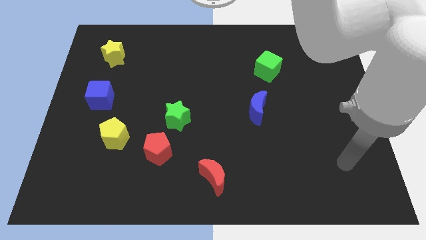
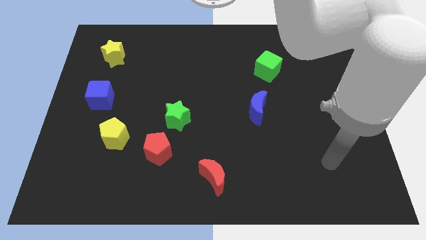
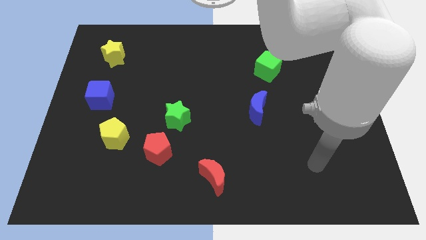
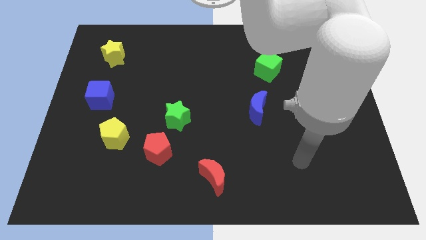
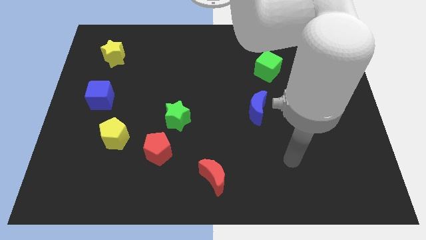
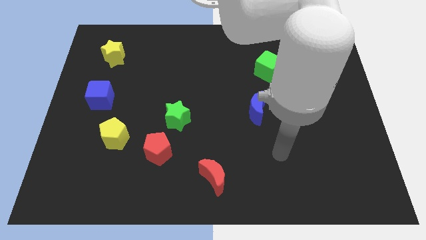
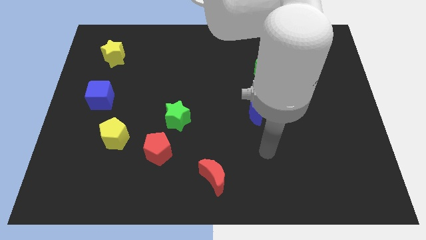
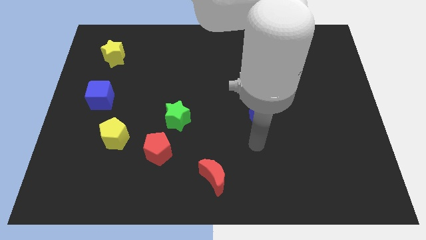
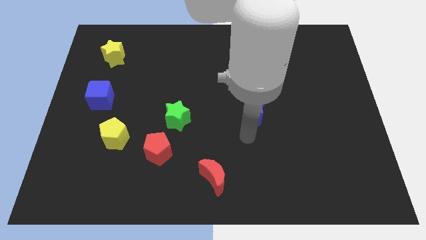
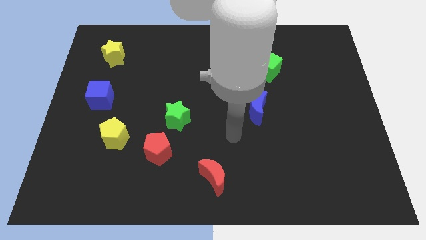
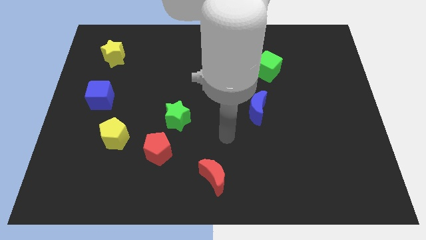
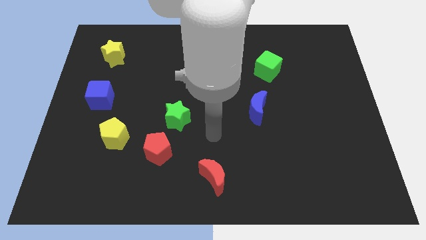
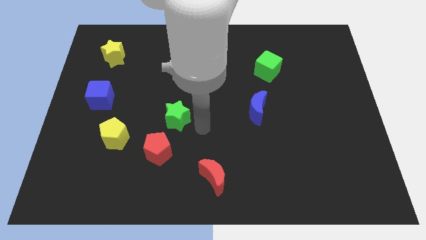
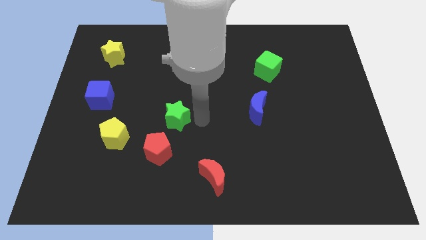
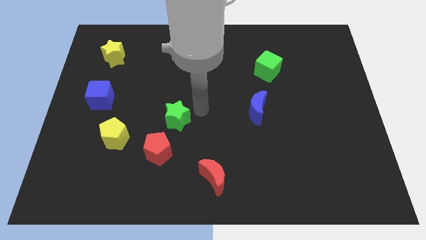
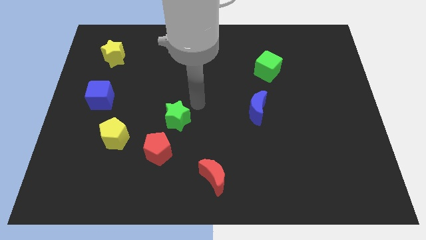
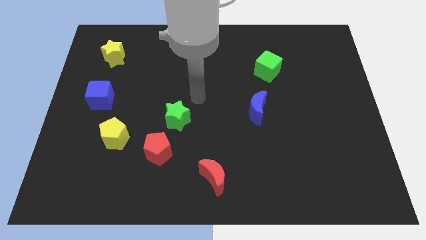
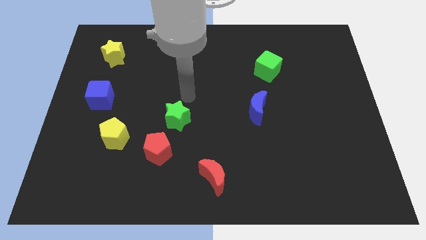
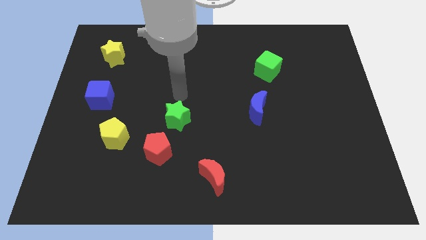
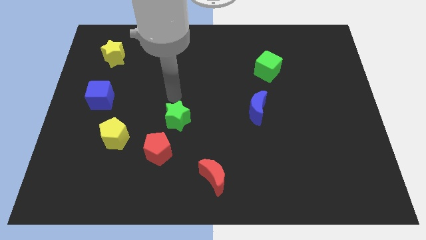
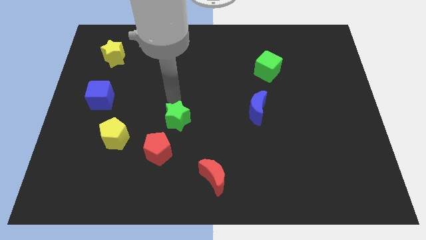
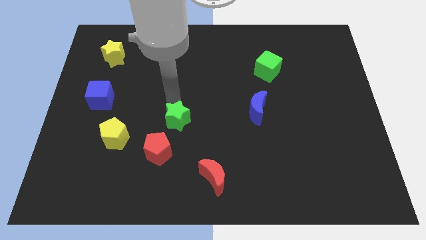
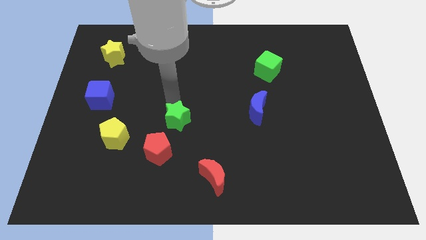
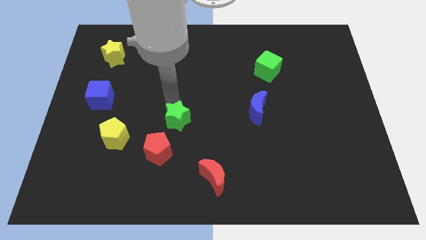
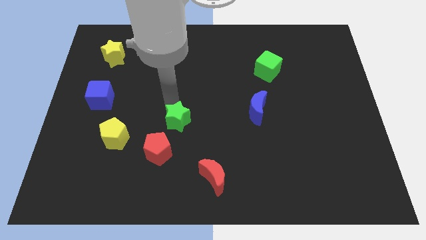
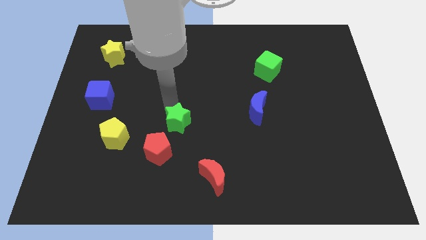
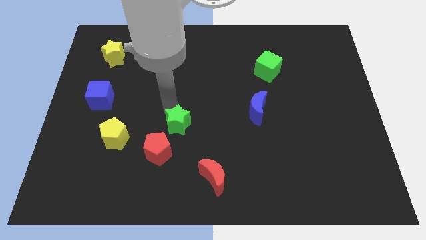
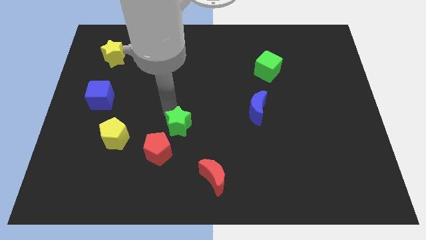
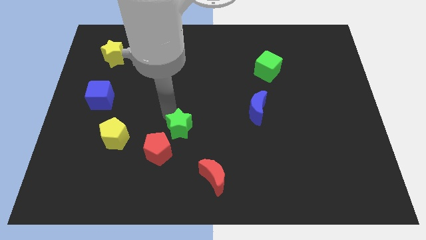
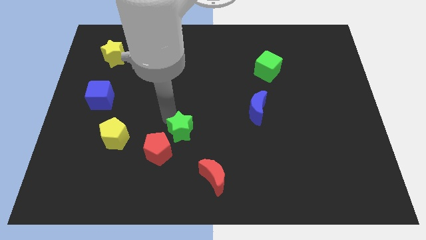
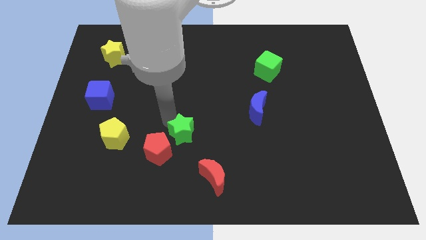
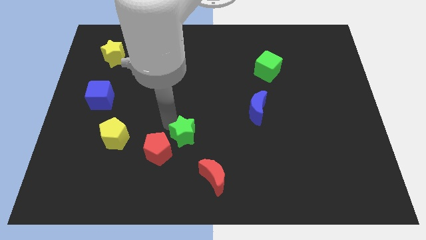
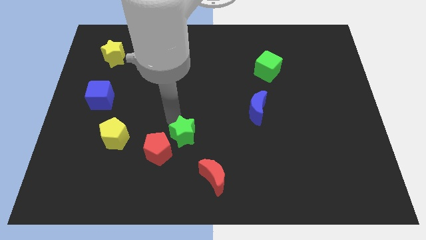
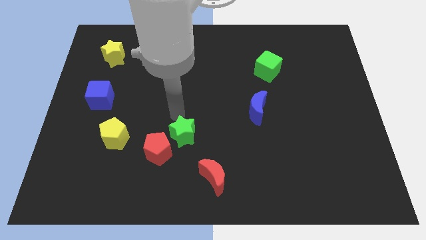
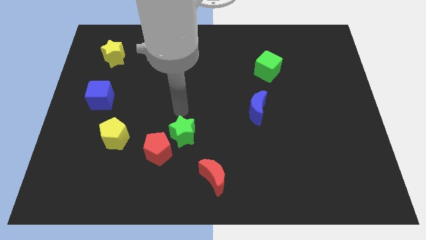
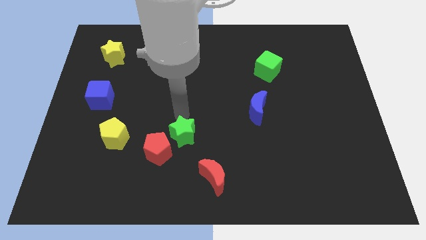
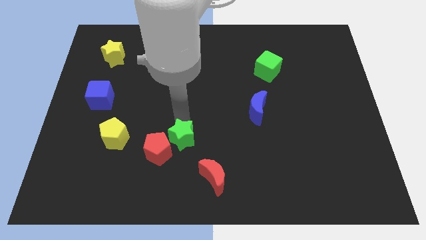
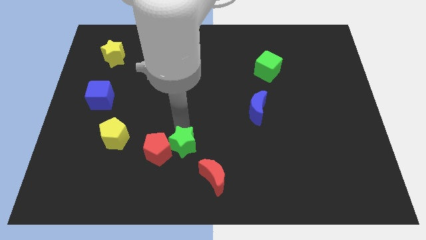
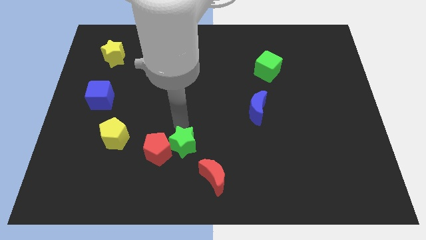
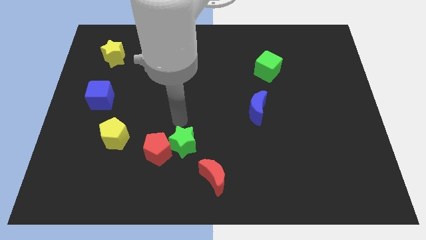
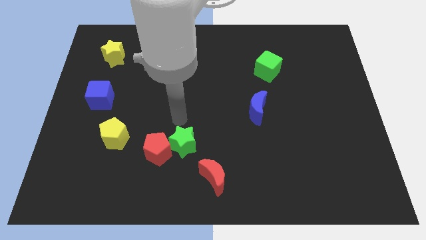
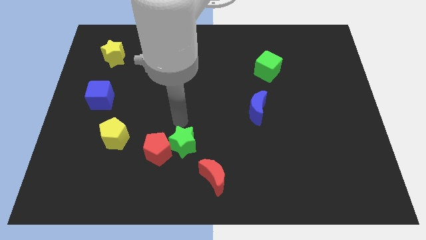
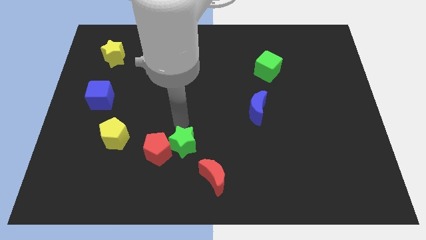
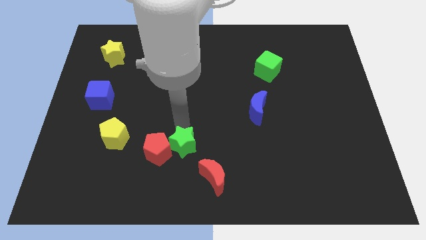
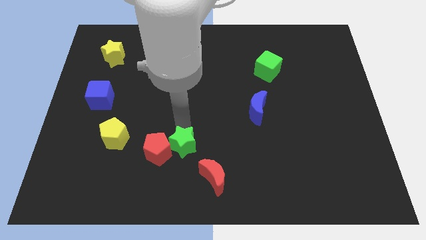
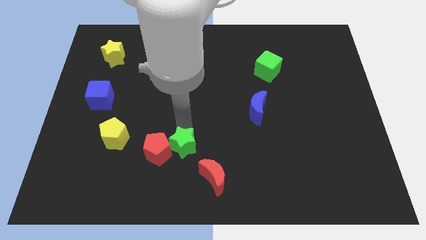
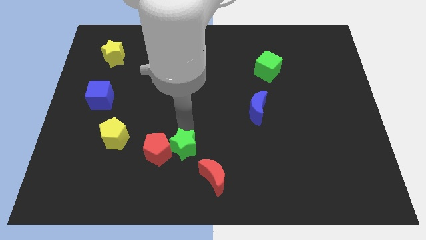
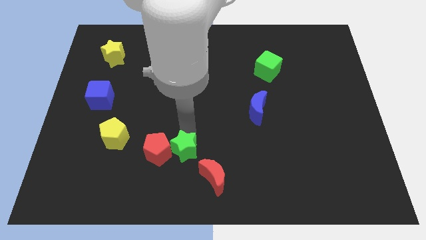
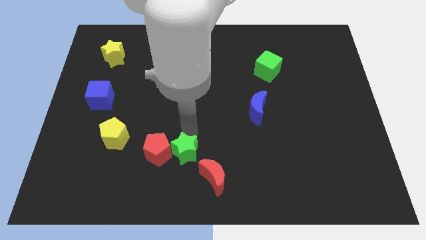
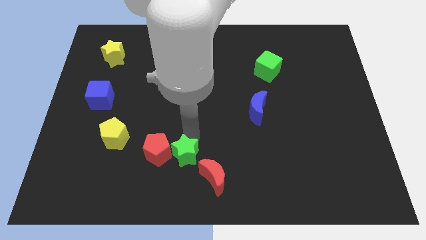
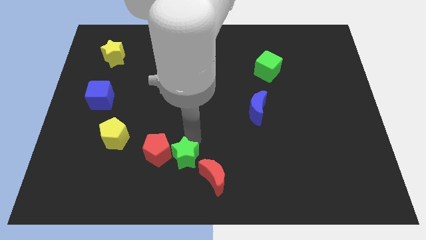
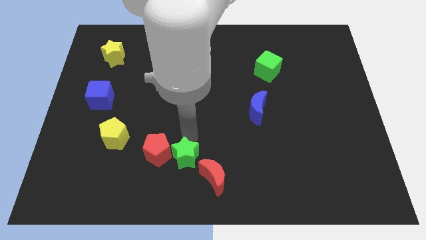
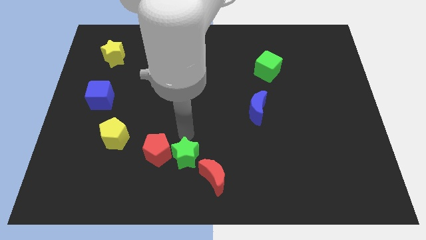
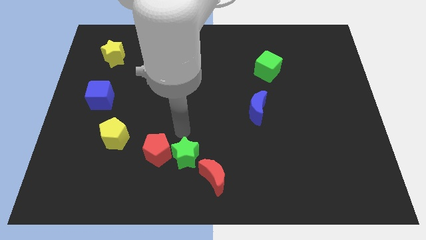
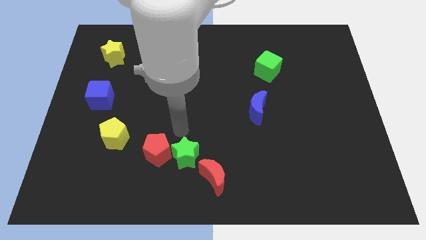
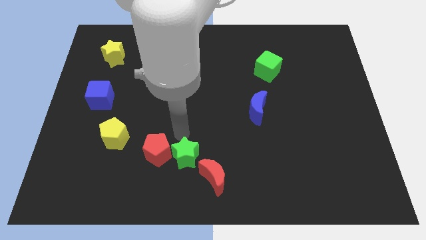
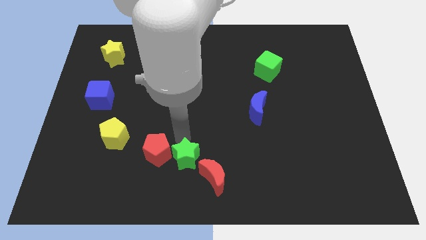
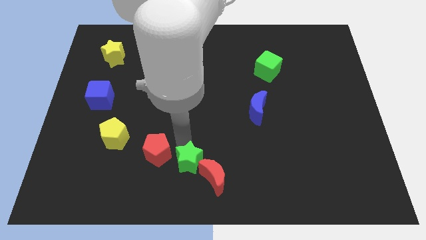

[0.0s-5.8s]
push the green star to the bottom side

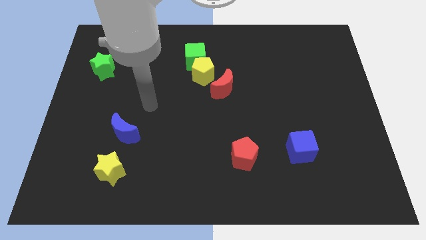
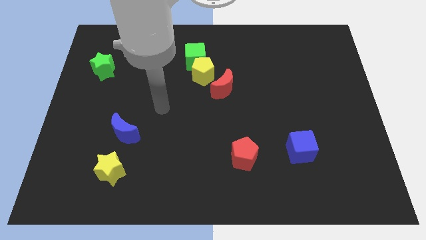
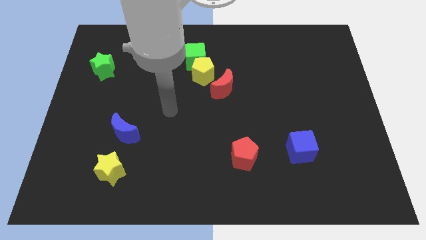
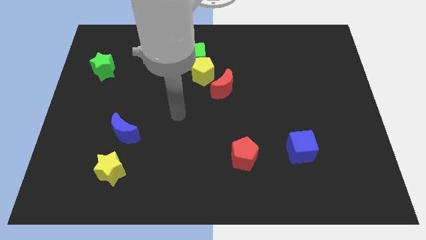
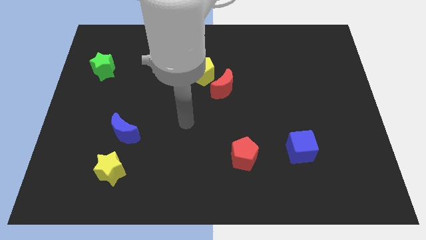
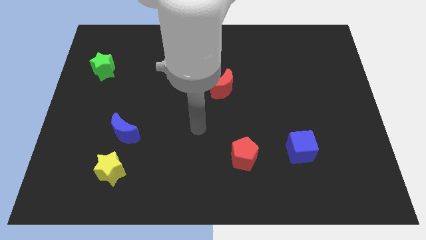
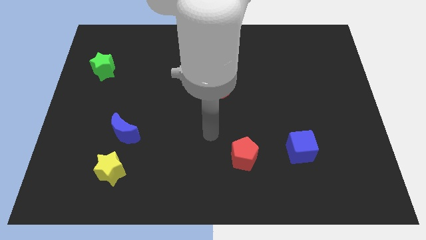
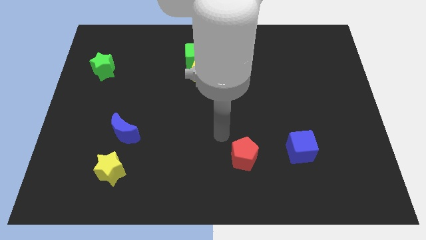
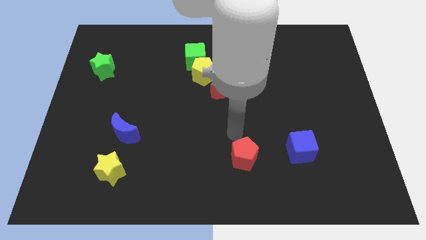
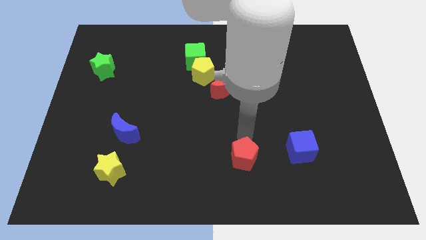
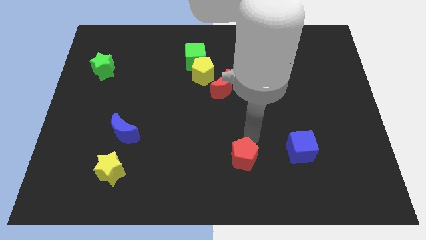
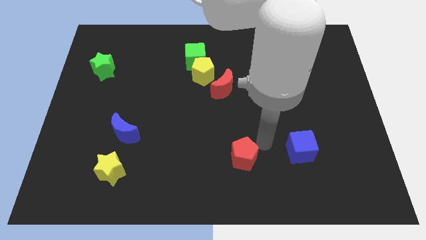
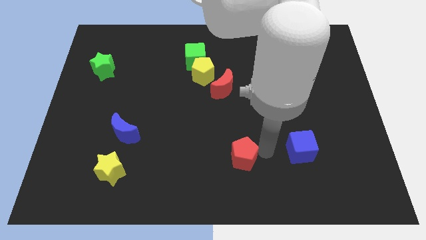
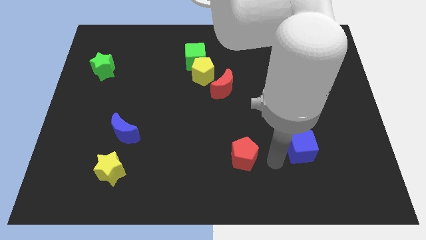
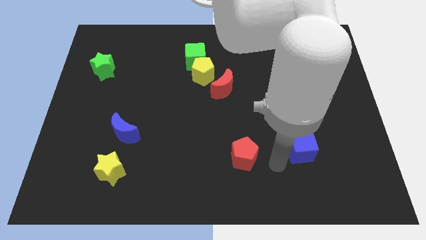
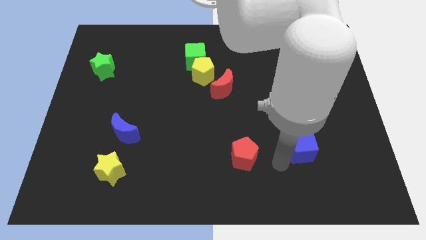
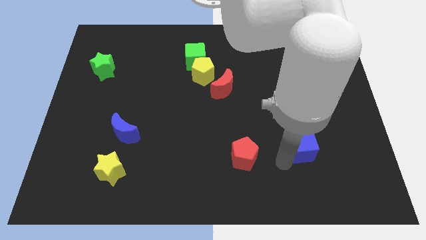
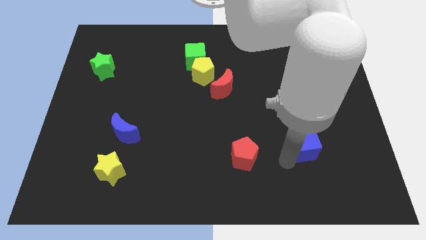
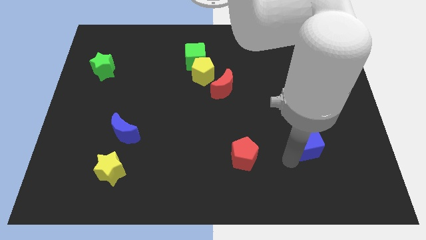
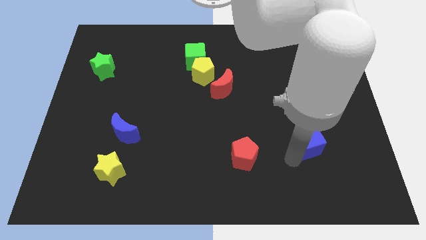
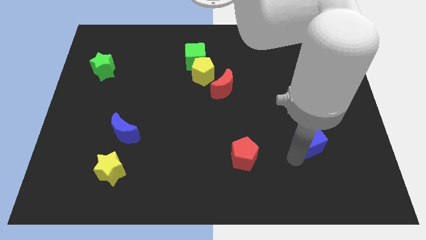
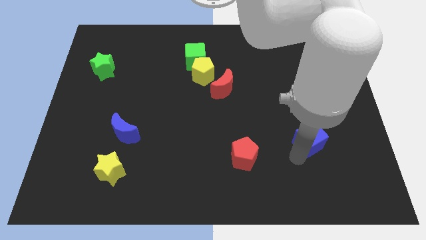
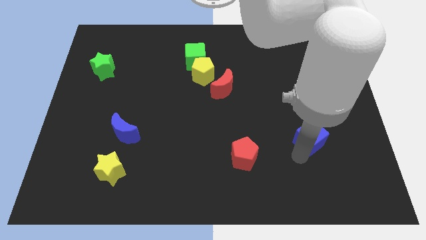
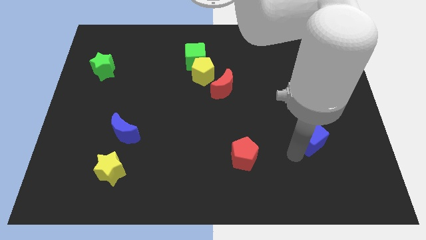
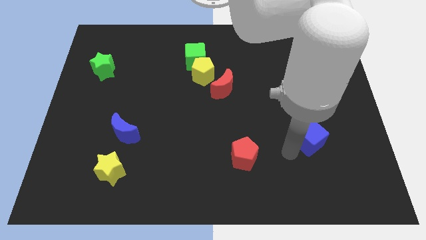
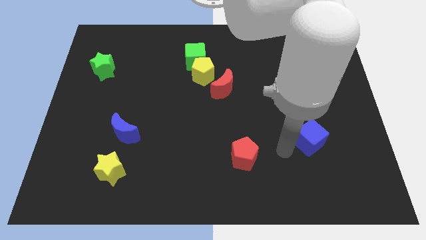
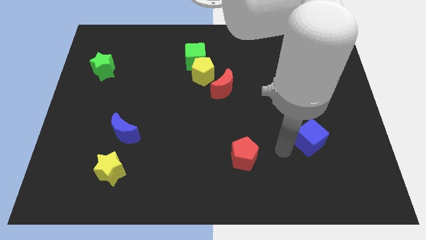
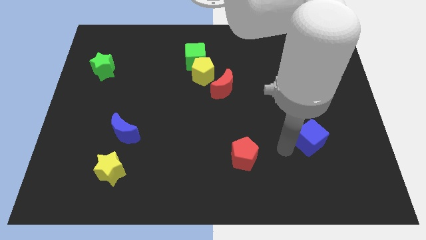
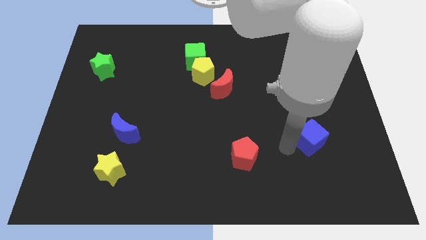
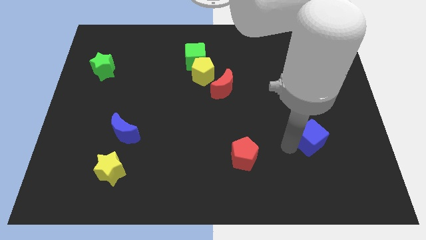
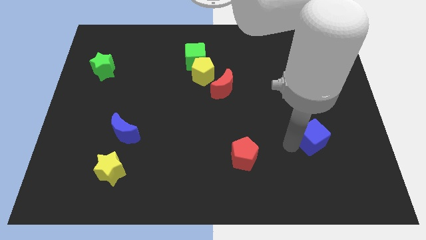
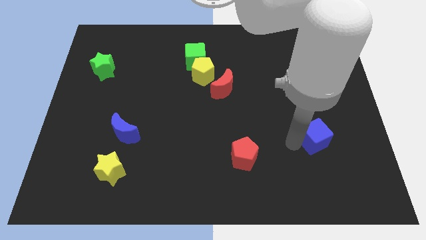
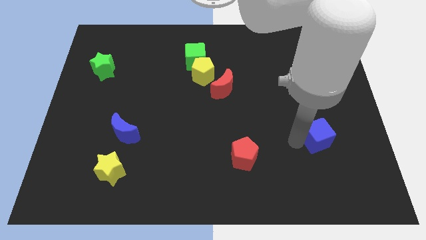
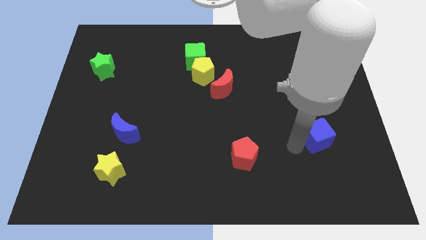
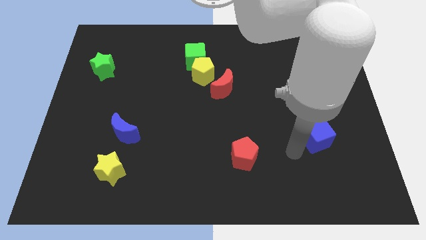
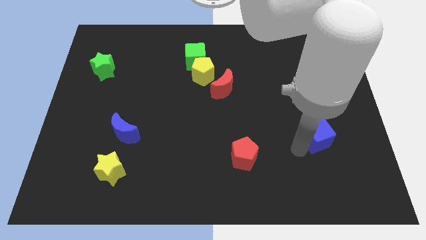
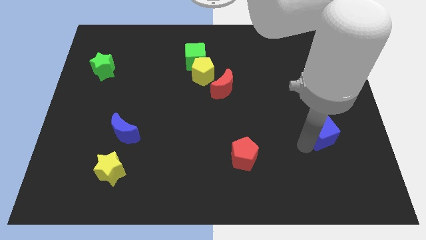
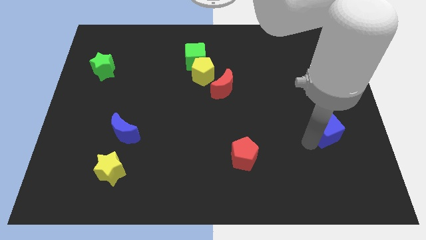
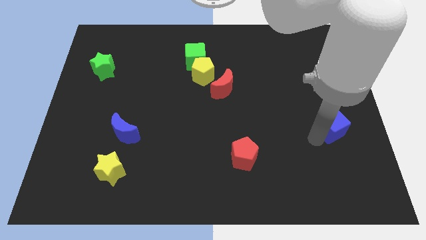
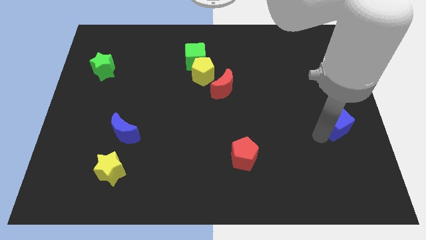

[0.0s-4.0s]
put the blue cube to the right side of the board
